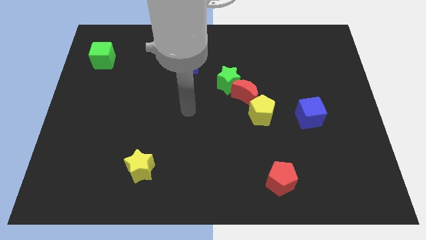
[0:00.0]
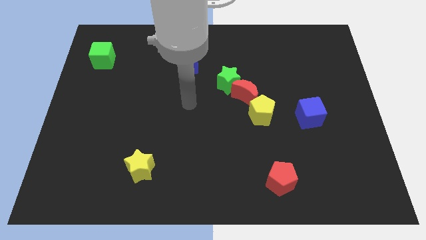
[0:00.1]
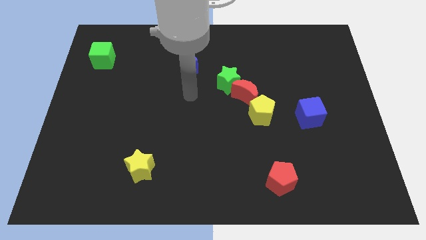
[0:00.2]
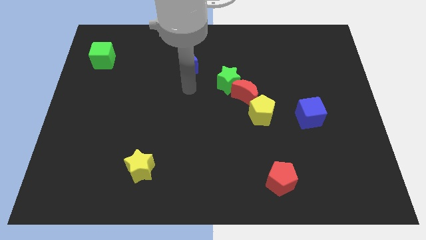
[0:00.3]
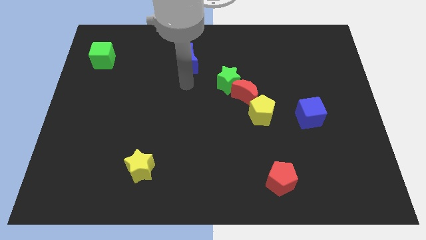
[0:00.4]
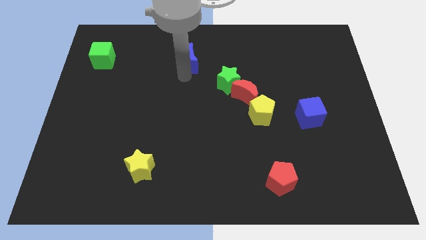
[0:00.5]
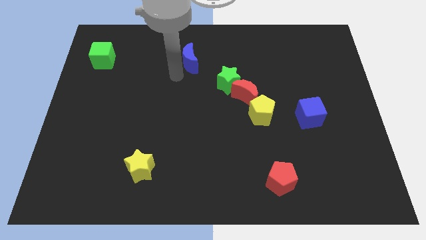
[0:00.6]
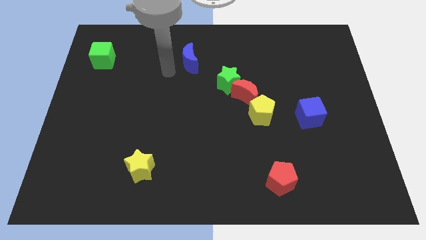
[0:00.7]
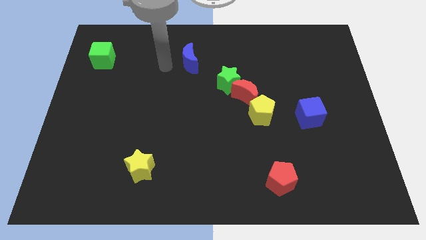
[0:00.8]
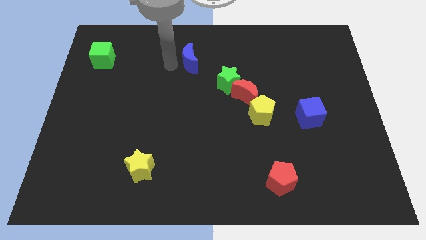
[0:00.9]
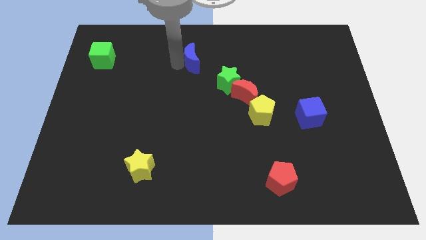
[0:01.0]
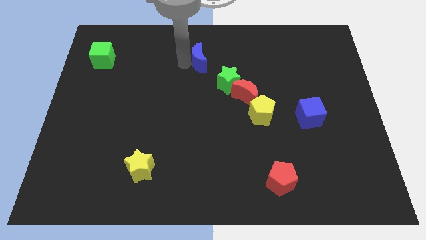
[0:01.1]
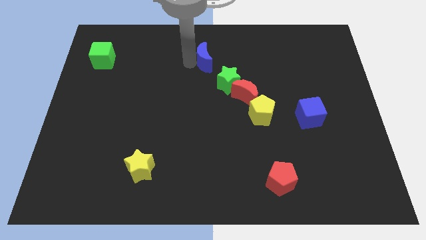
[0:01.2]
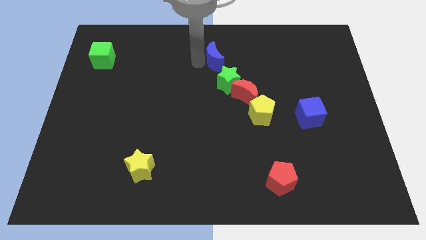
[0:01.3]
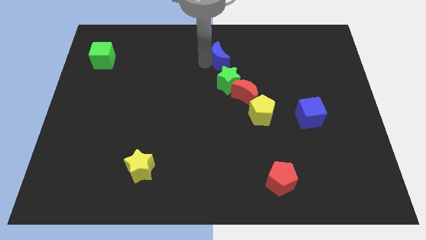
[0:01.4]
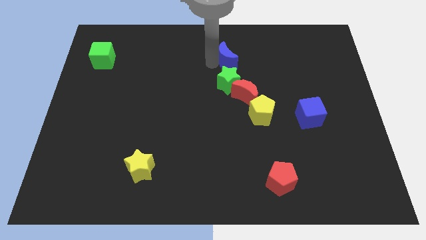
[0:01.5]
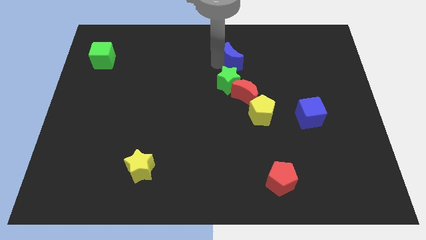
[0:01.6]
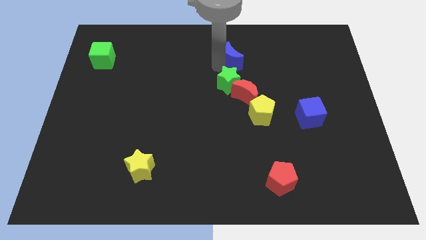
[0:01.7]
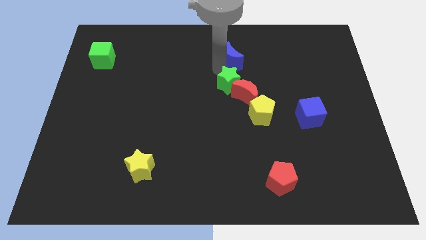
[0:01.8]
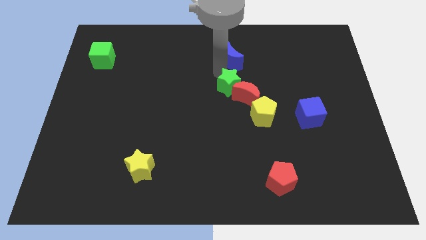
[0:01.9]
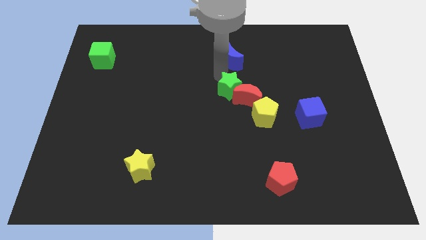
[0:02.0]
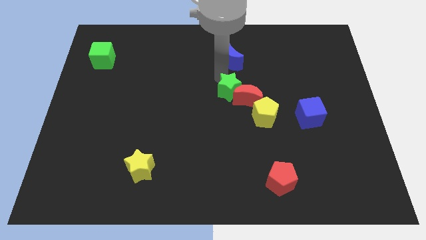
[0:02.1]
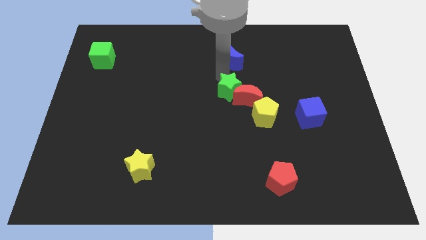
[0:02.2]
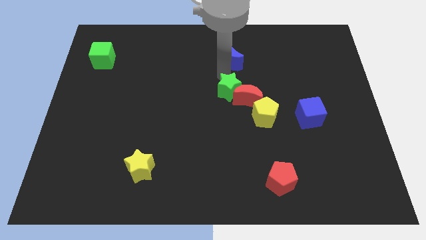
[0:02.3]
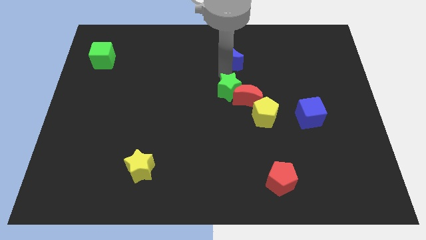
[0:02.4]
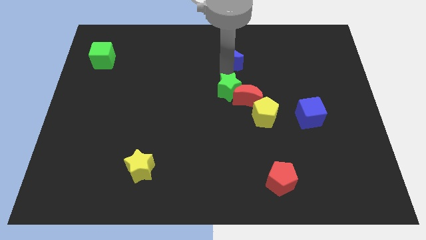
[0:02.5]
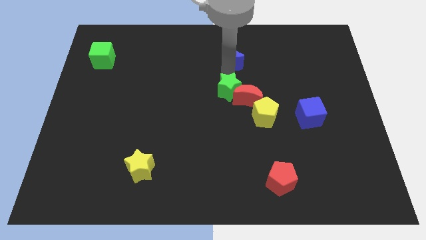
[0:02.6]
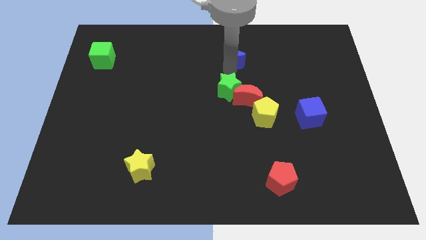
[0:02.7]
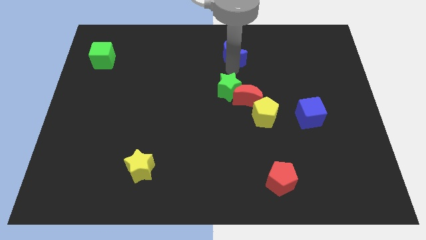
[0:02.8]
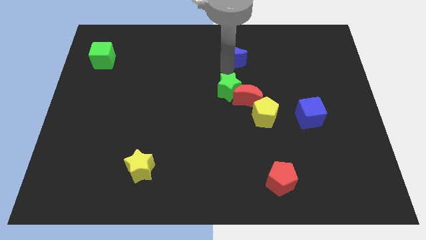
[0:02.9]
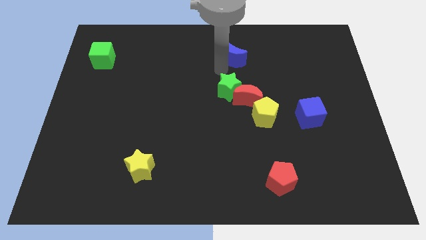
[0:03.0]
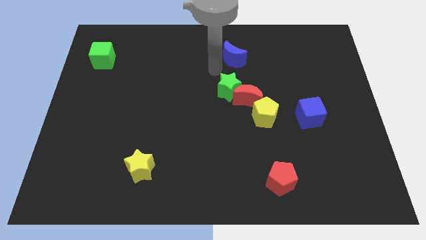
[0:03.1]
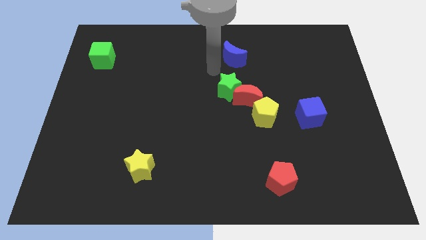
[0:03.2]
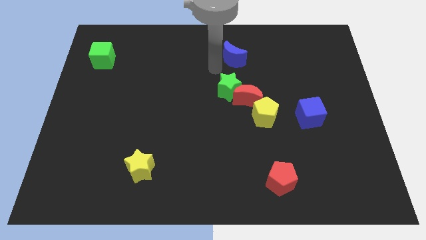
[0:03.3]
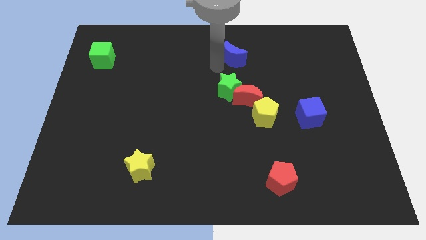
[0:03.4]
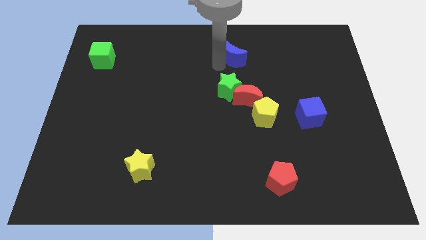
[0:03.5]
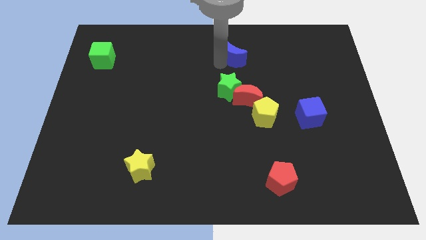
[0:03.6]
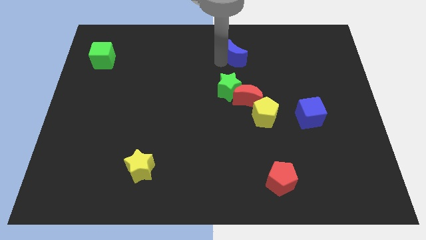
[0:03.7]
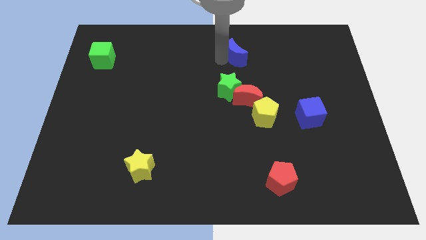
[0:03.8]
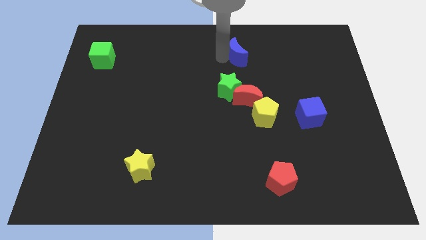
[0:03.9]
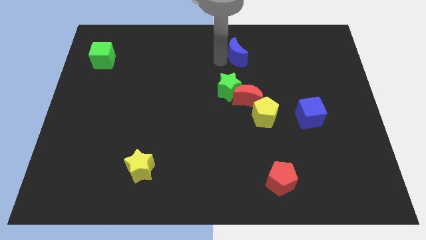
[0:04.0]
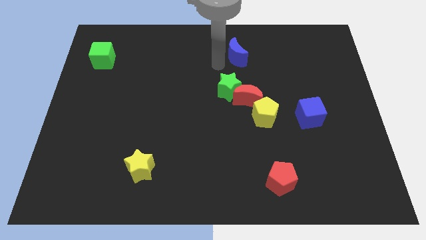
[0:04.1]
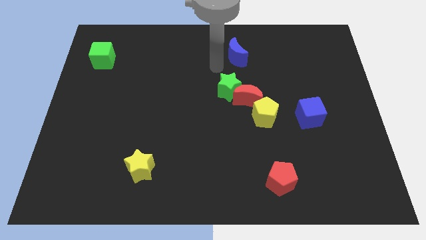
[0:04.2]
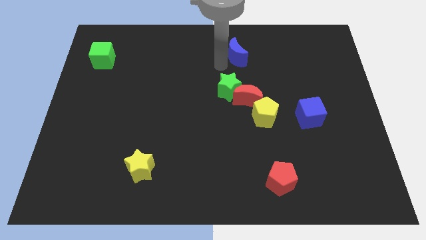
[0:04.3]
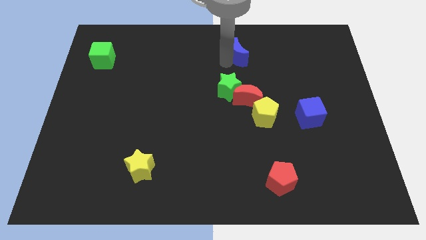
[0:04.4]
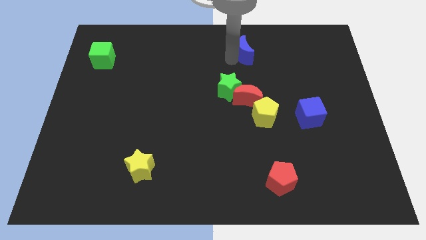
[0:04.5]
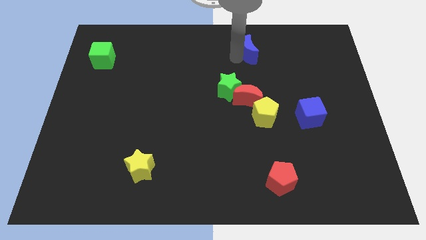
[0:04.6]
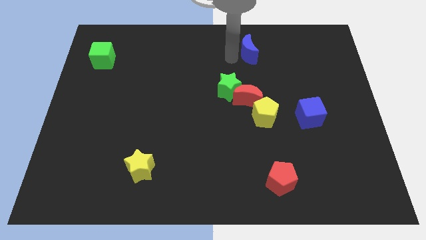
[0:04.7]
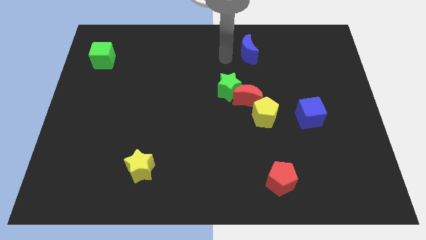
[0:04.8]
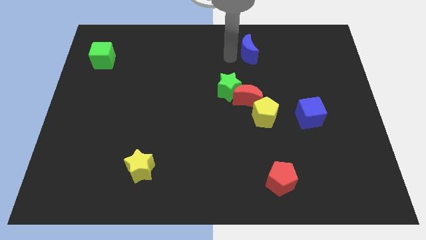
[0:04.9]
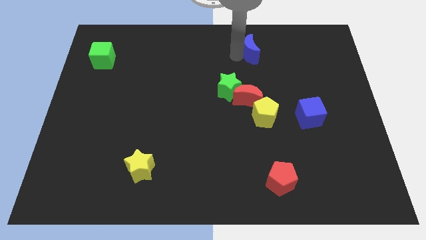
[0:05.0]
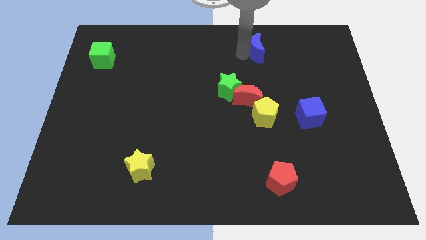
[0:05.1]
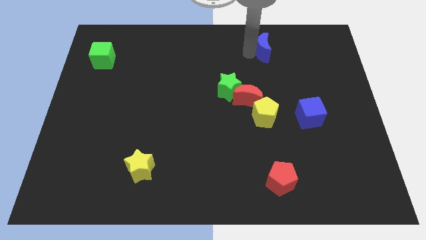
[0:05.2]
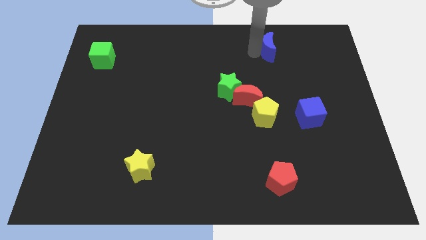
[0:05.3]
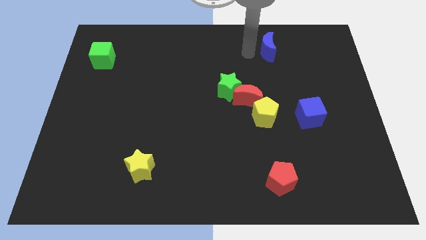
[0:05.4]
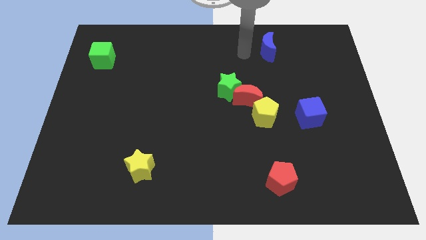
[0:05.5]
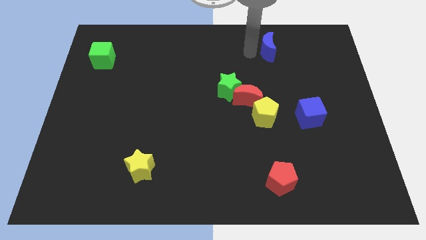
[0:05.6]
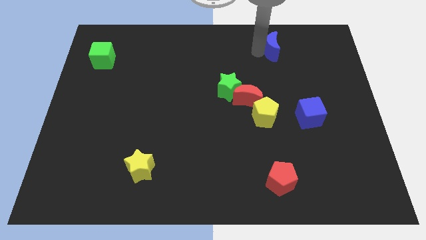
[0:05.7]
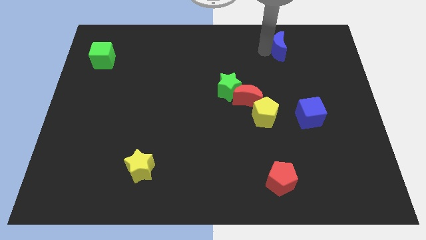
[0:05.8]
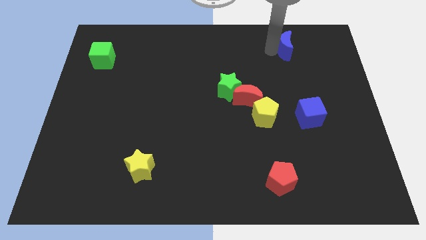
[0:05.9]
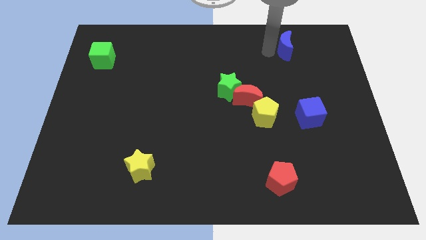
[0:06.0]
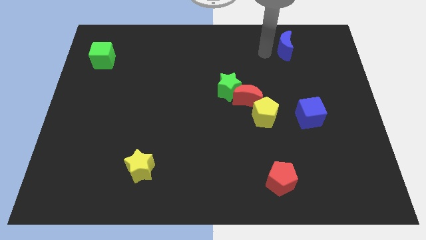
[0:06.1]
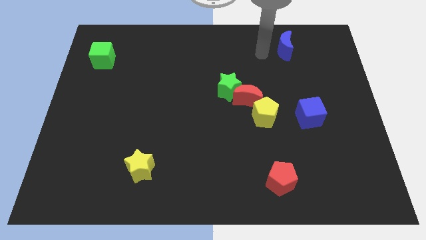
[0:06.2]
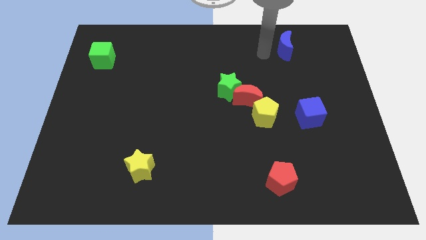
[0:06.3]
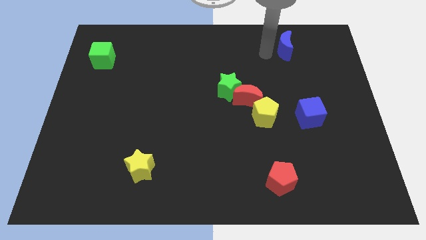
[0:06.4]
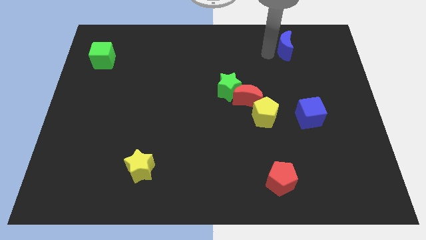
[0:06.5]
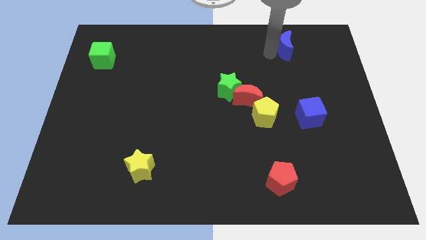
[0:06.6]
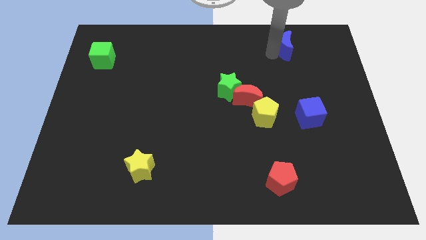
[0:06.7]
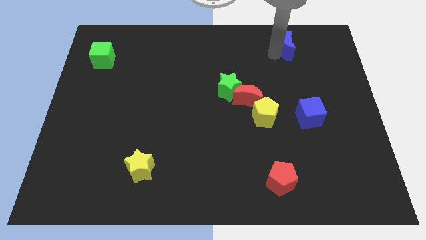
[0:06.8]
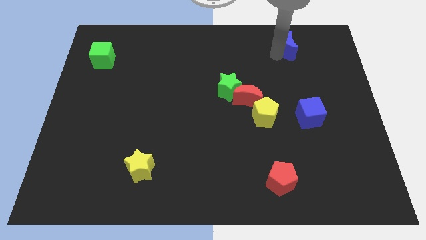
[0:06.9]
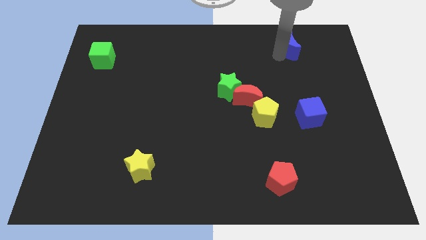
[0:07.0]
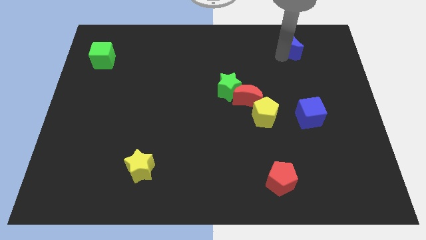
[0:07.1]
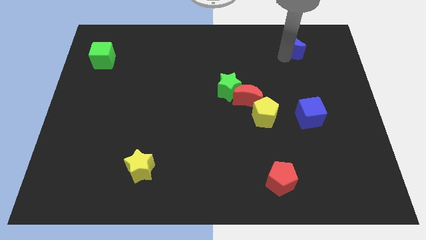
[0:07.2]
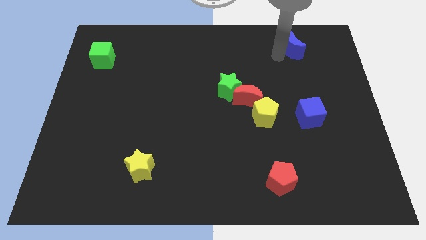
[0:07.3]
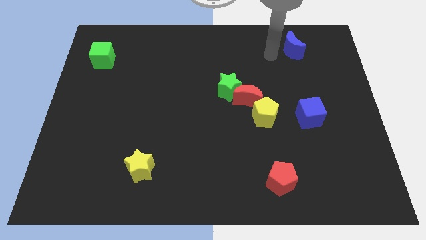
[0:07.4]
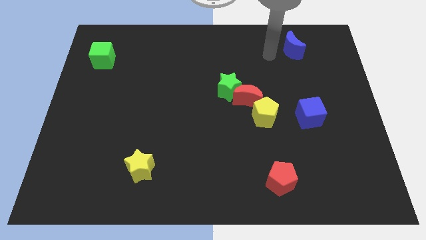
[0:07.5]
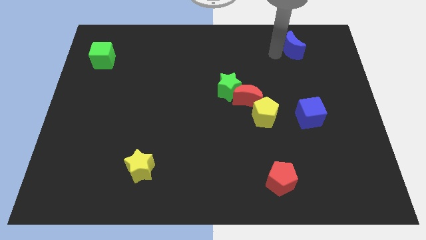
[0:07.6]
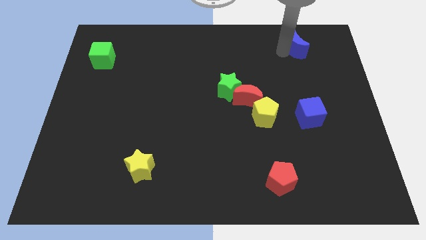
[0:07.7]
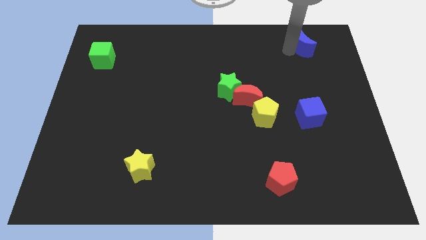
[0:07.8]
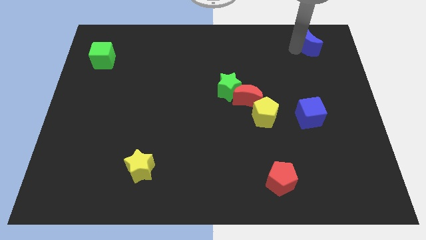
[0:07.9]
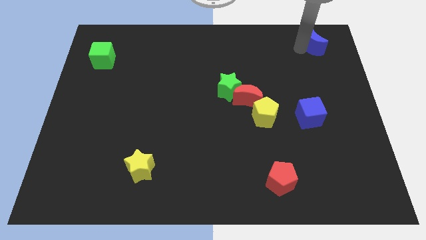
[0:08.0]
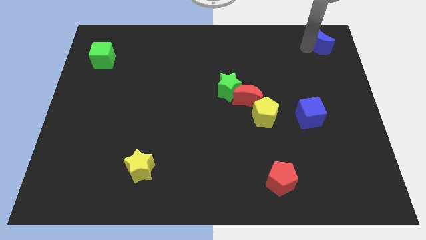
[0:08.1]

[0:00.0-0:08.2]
put the blue moon to the upper right corner
